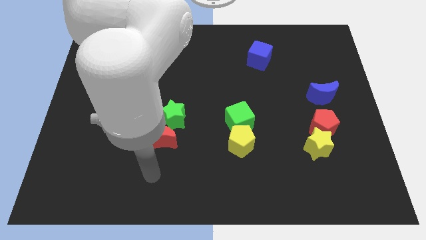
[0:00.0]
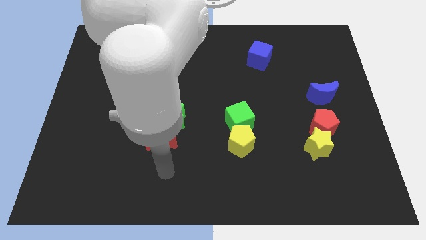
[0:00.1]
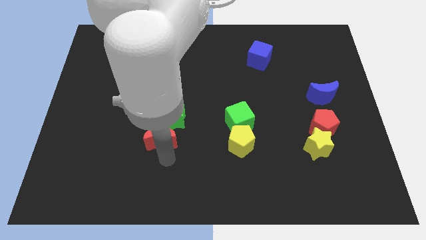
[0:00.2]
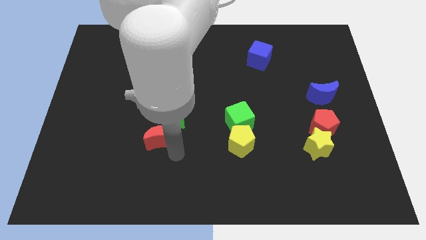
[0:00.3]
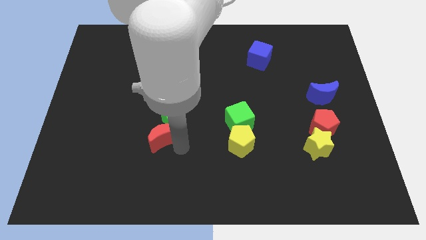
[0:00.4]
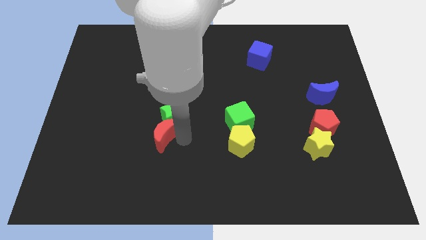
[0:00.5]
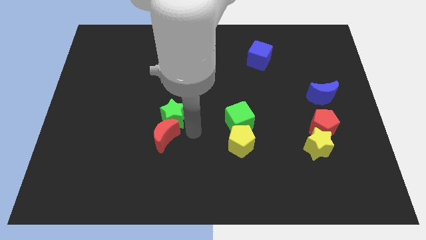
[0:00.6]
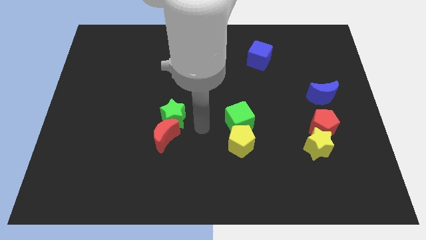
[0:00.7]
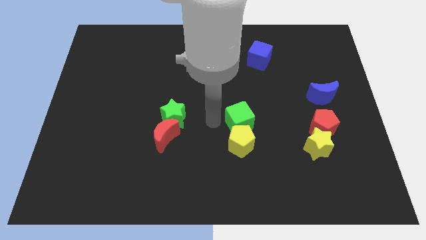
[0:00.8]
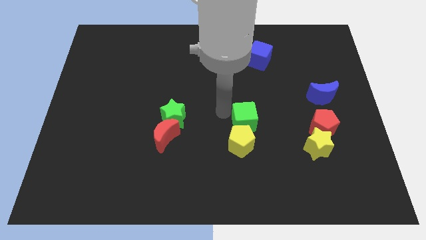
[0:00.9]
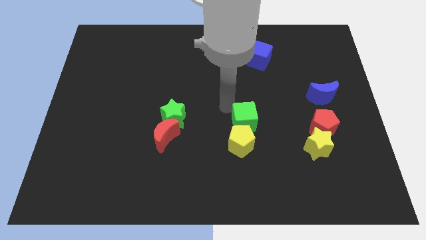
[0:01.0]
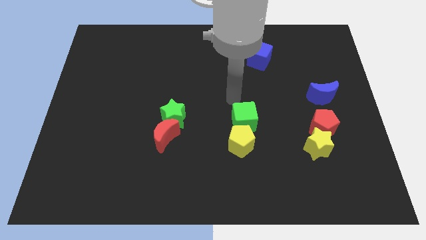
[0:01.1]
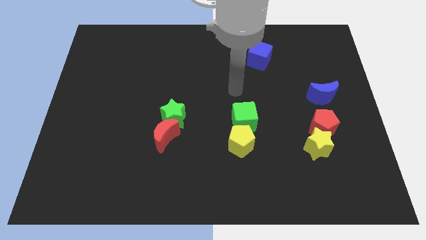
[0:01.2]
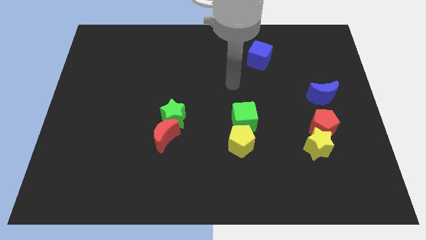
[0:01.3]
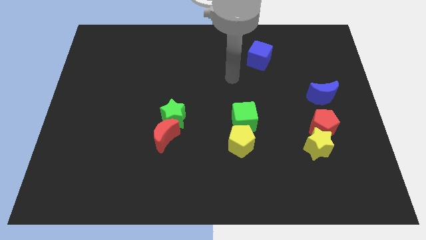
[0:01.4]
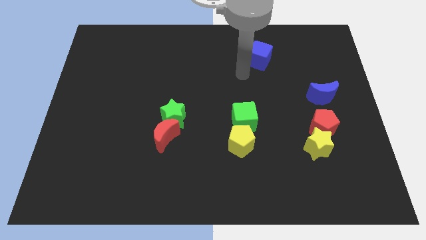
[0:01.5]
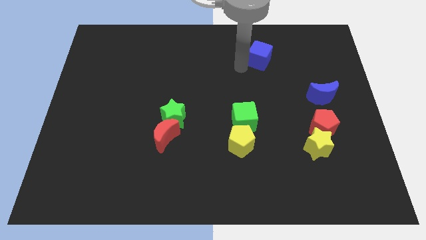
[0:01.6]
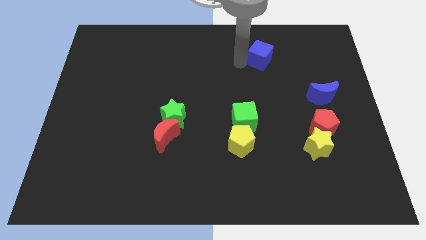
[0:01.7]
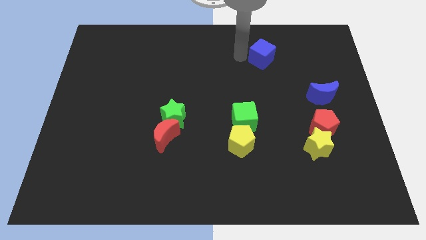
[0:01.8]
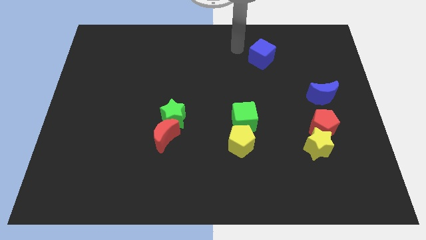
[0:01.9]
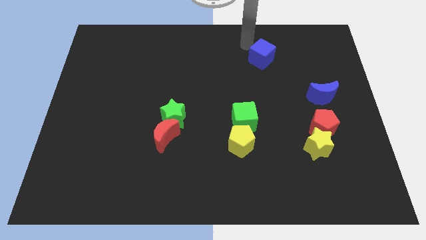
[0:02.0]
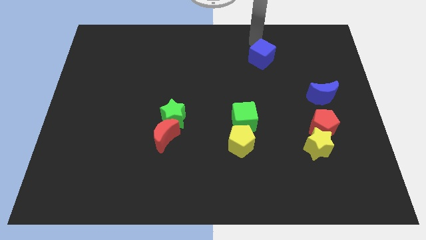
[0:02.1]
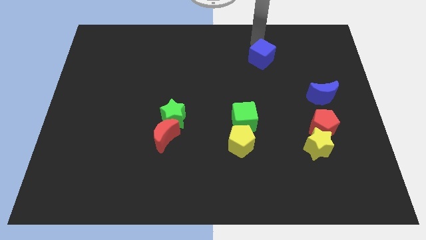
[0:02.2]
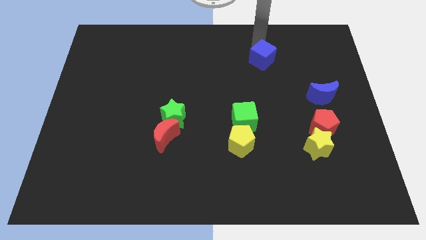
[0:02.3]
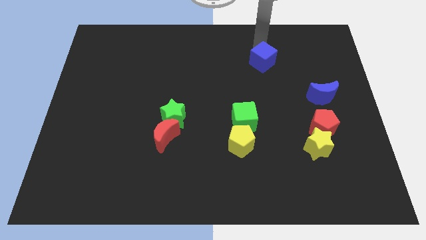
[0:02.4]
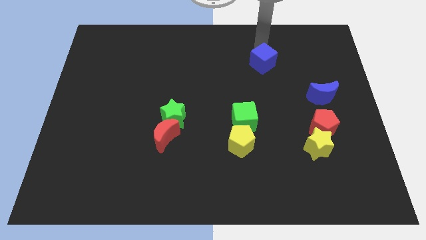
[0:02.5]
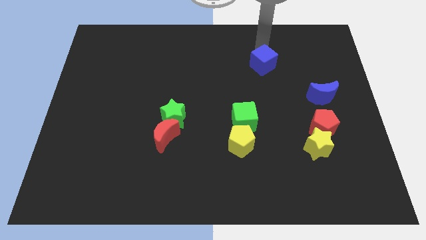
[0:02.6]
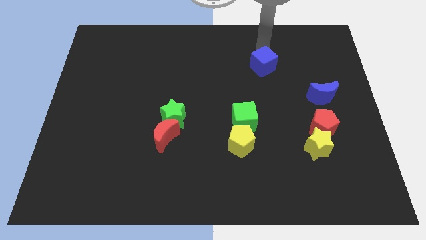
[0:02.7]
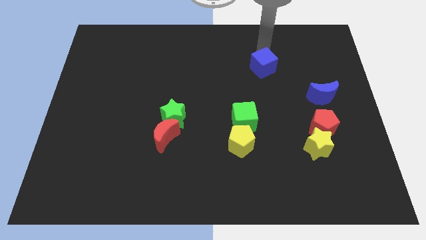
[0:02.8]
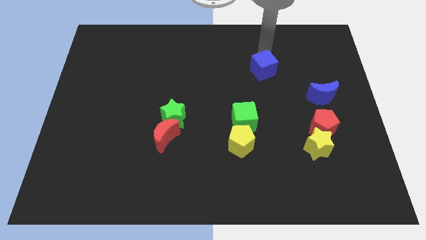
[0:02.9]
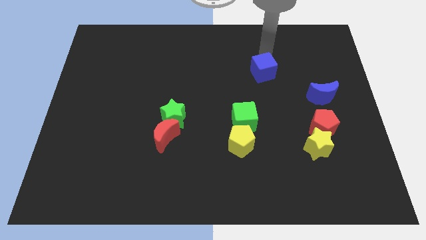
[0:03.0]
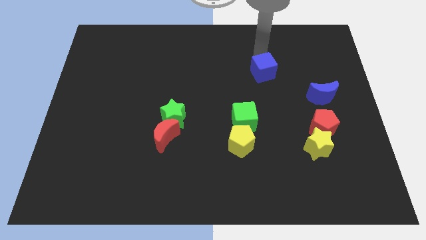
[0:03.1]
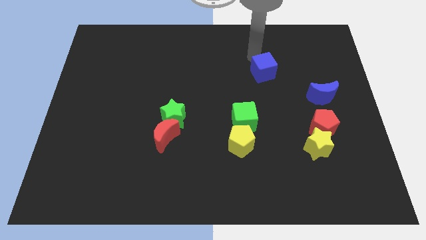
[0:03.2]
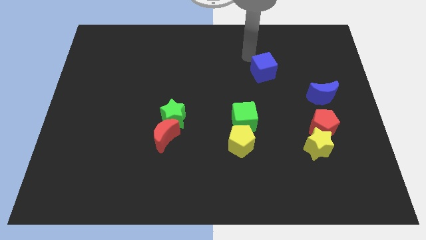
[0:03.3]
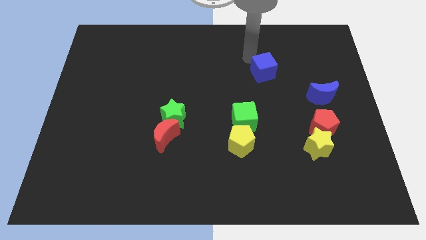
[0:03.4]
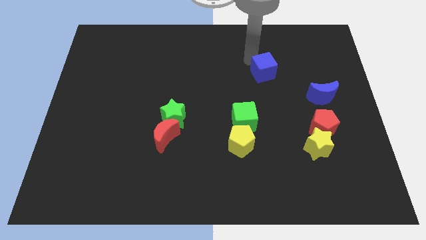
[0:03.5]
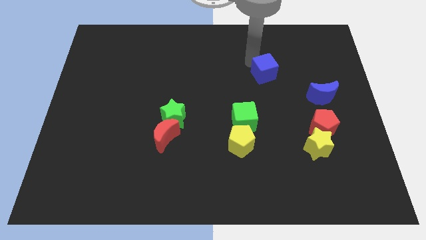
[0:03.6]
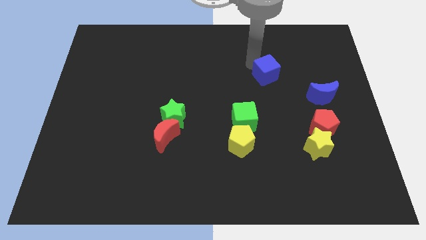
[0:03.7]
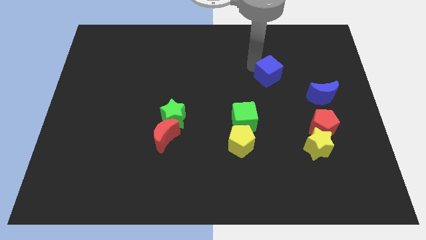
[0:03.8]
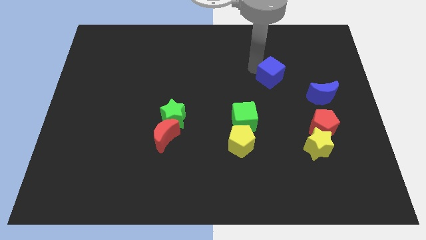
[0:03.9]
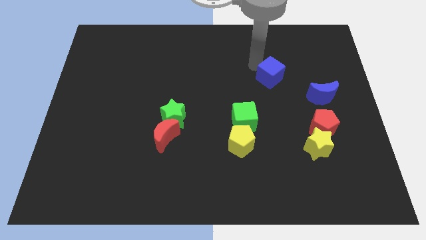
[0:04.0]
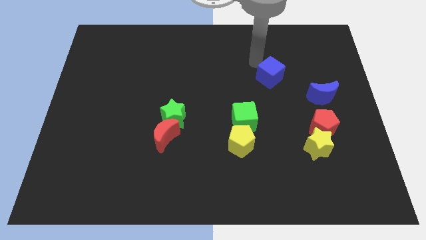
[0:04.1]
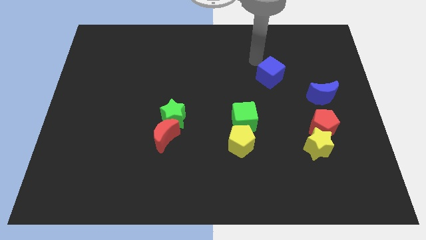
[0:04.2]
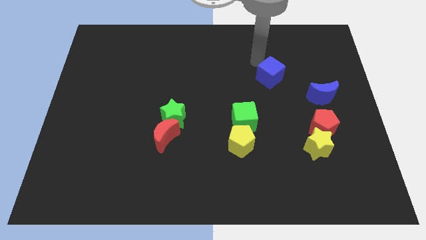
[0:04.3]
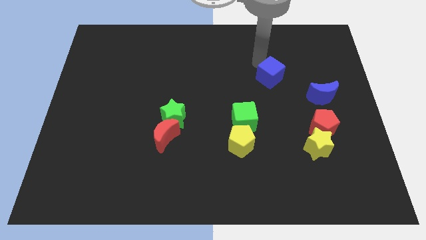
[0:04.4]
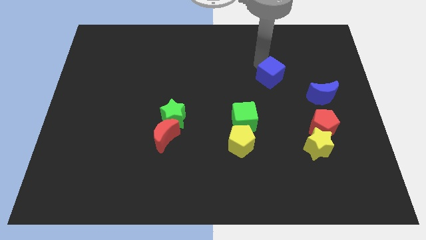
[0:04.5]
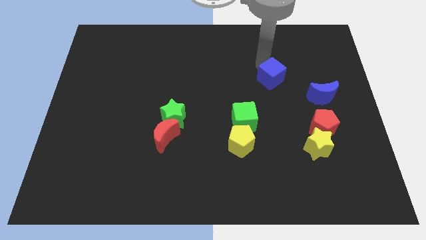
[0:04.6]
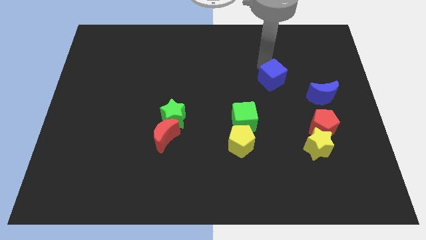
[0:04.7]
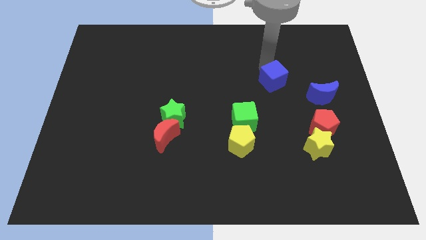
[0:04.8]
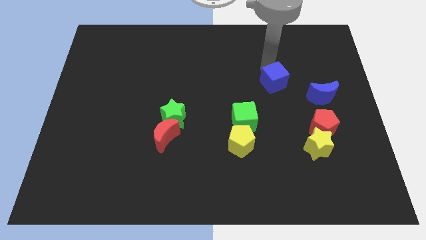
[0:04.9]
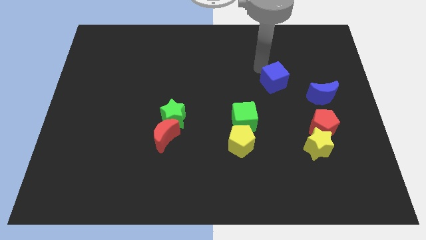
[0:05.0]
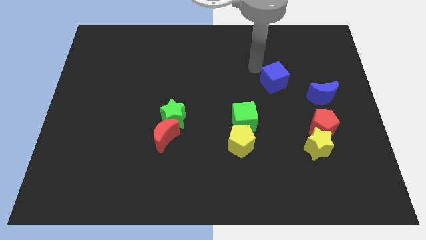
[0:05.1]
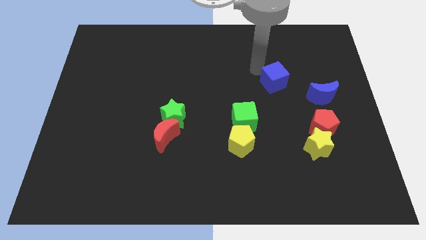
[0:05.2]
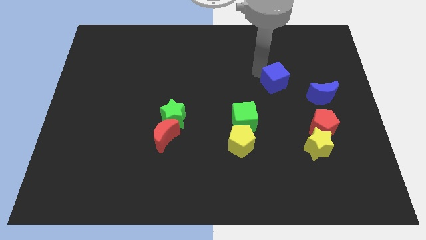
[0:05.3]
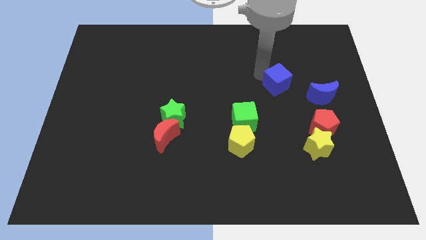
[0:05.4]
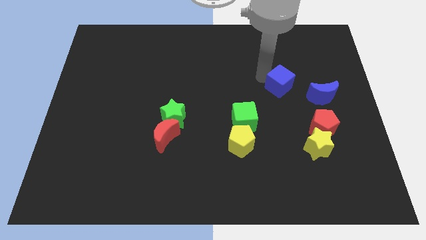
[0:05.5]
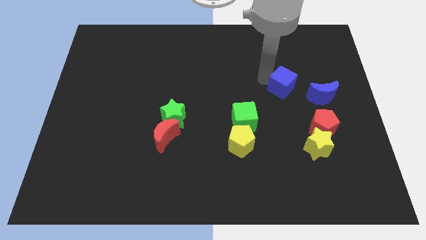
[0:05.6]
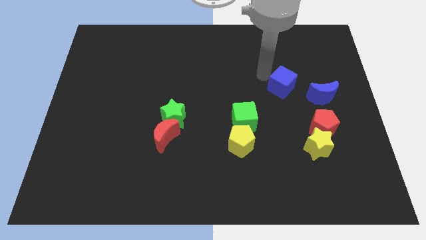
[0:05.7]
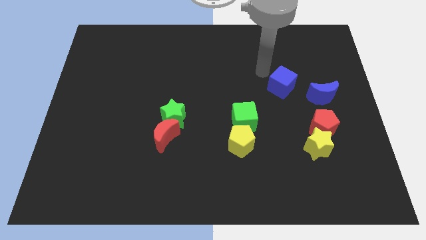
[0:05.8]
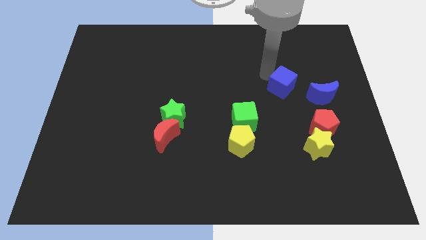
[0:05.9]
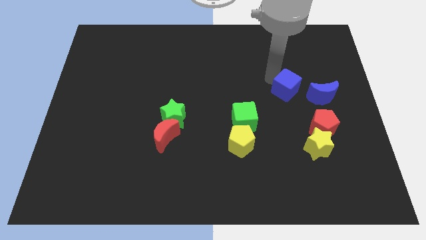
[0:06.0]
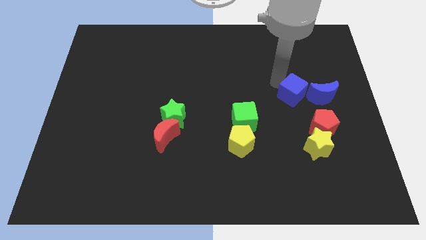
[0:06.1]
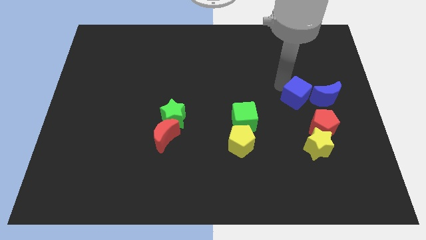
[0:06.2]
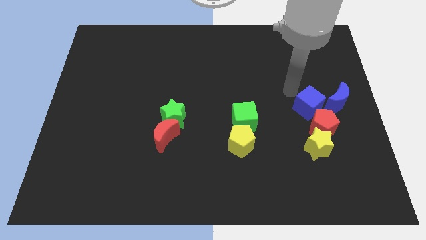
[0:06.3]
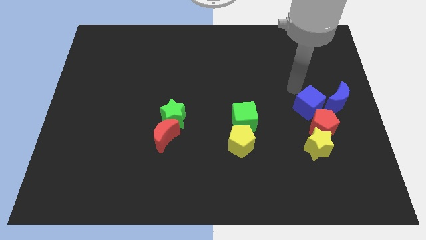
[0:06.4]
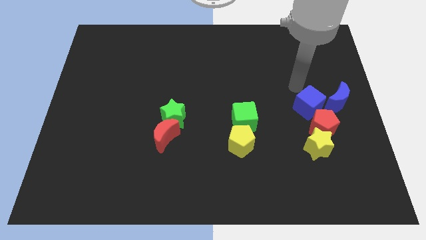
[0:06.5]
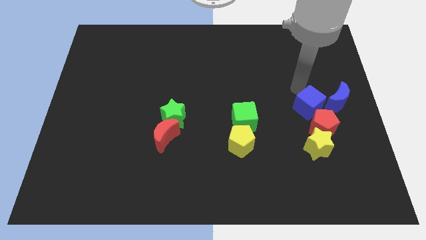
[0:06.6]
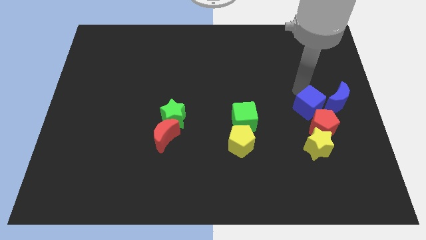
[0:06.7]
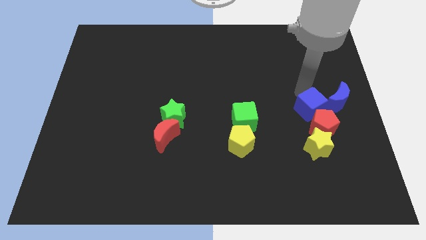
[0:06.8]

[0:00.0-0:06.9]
put the blue cube to the red pentagon

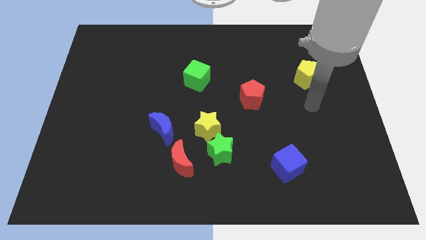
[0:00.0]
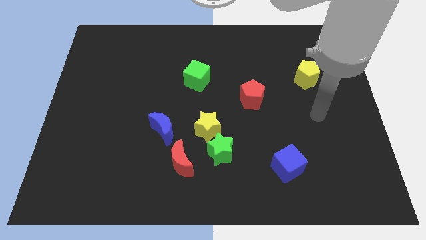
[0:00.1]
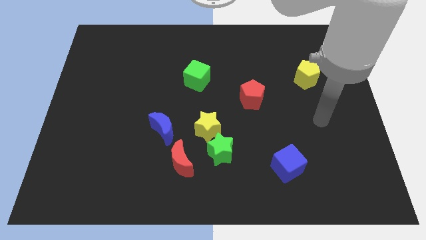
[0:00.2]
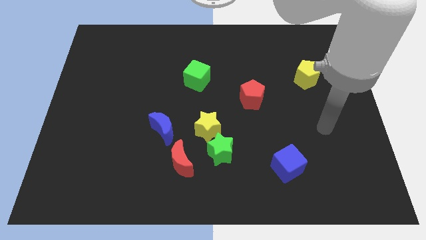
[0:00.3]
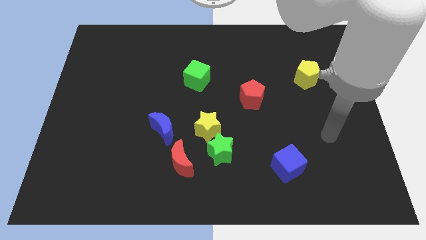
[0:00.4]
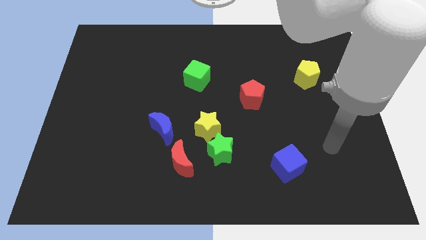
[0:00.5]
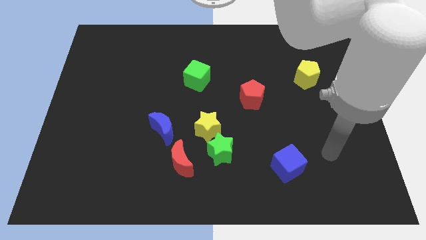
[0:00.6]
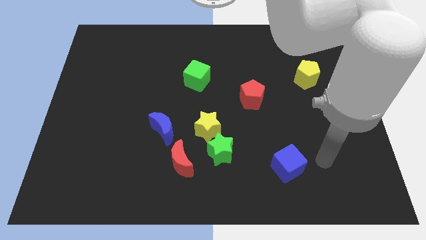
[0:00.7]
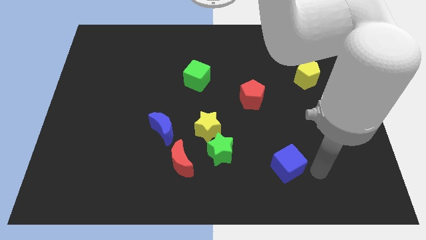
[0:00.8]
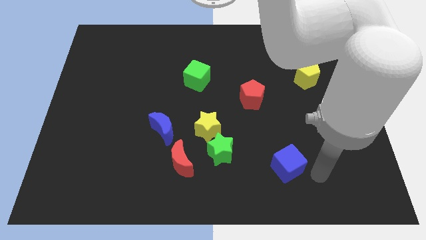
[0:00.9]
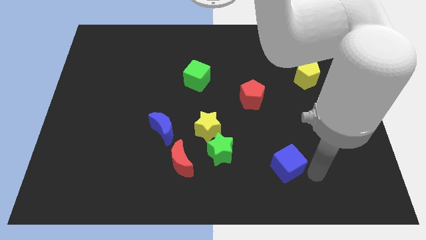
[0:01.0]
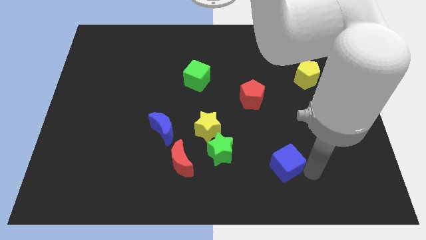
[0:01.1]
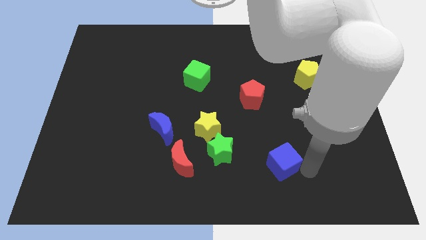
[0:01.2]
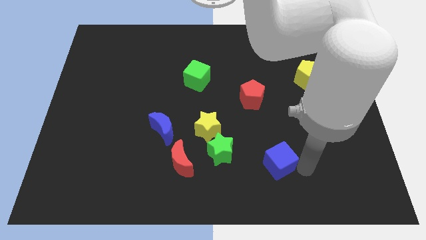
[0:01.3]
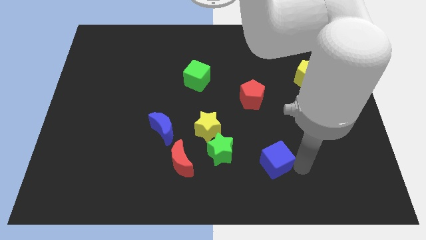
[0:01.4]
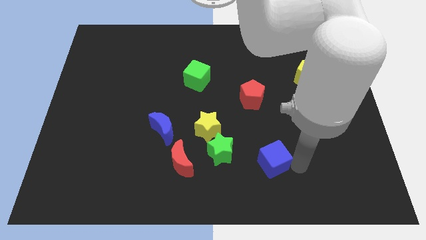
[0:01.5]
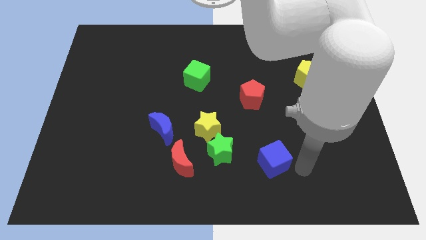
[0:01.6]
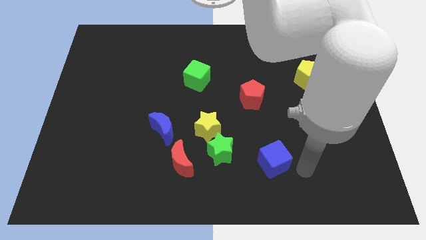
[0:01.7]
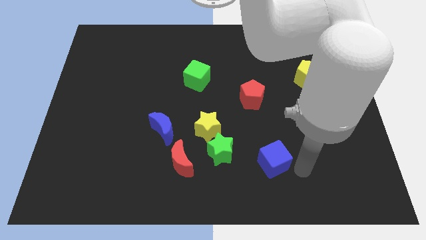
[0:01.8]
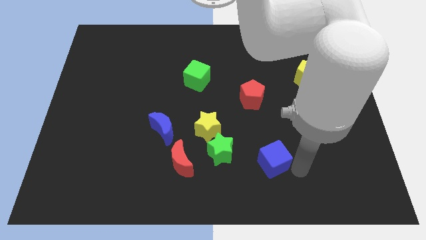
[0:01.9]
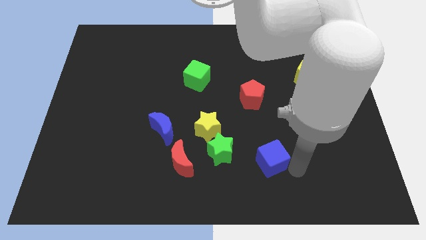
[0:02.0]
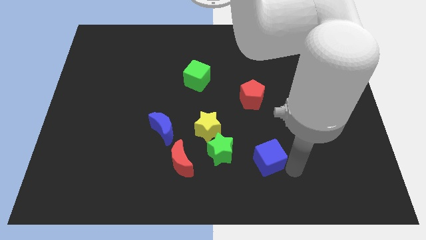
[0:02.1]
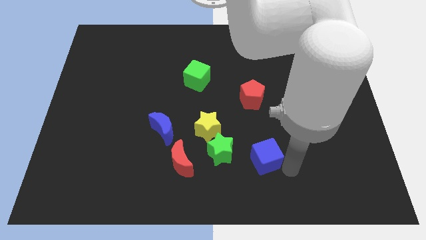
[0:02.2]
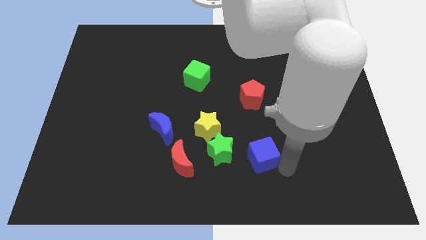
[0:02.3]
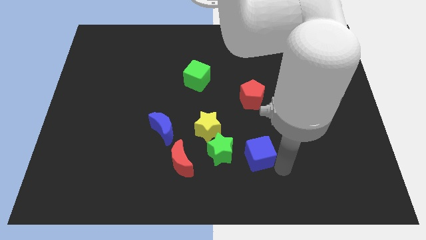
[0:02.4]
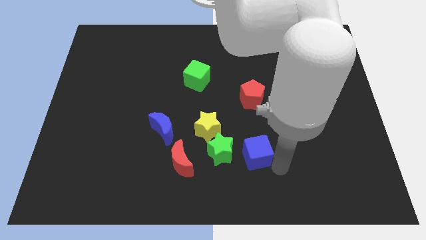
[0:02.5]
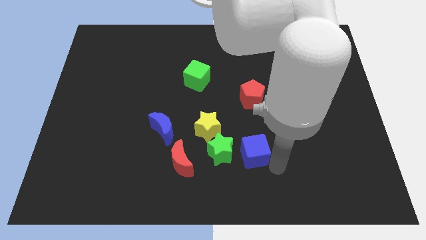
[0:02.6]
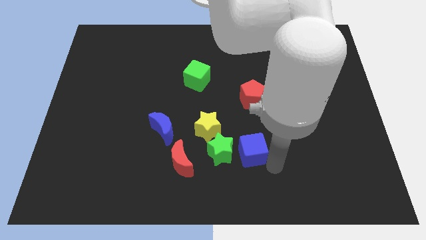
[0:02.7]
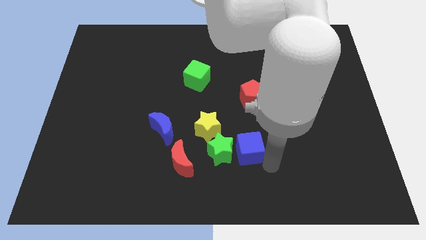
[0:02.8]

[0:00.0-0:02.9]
push the blue cube next to the green star
